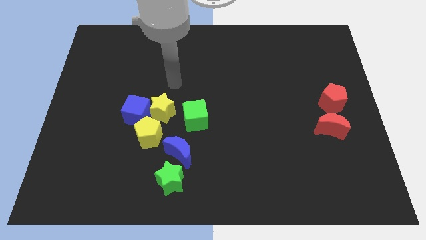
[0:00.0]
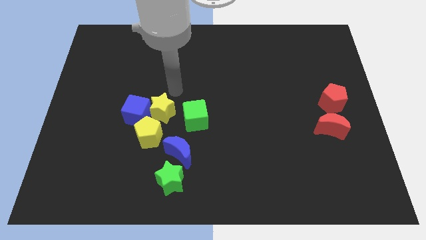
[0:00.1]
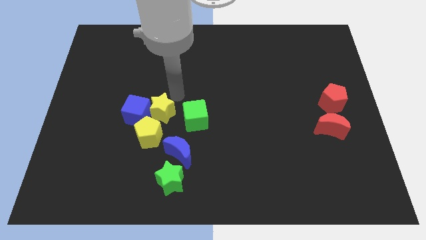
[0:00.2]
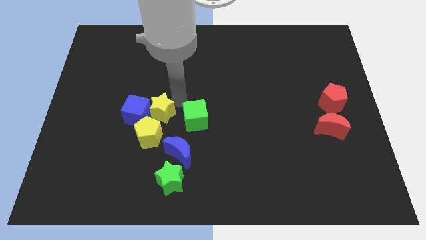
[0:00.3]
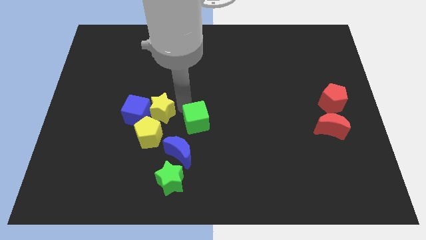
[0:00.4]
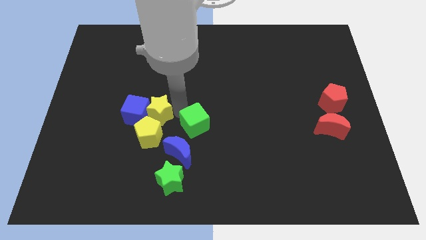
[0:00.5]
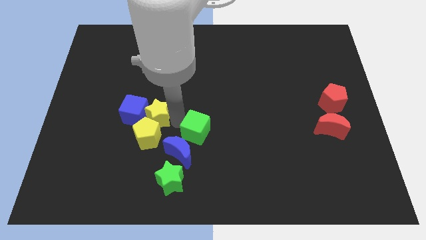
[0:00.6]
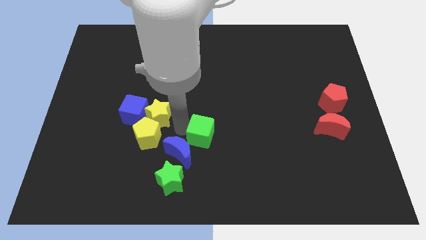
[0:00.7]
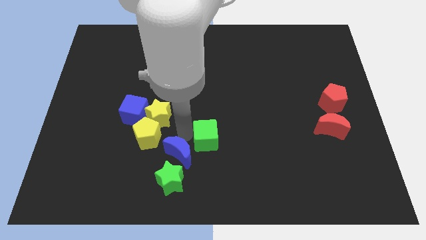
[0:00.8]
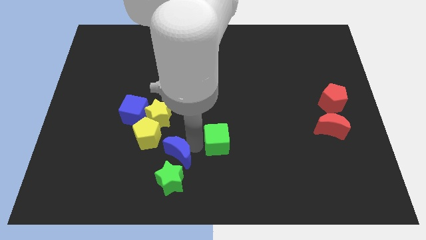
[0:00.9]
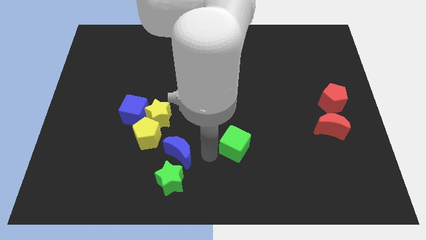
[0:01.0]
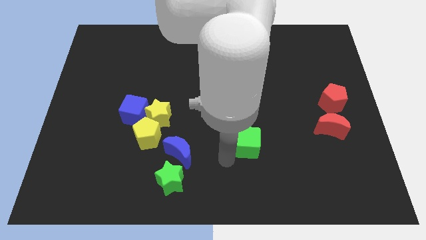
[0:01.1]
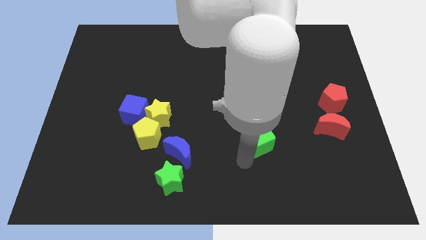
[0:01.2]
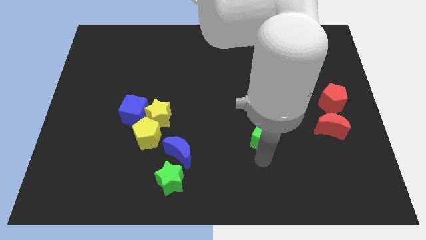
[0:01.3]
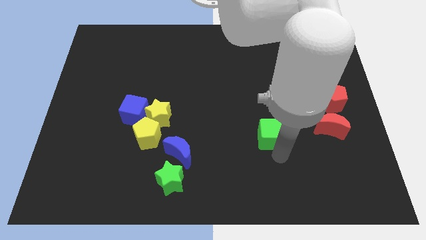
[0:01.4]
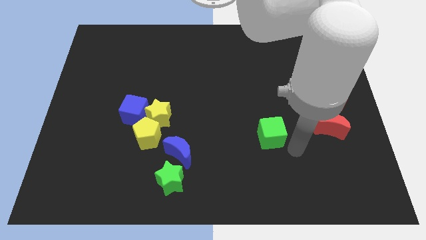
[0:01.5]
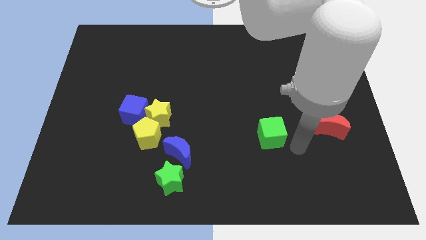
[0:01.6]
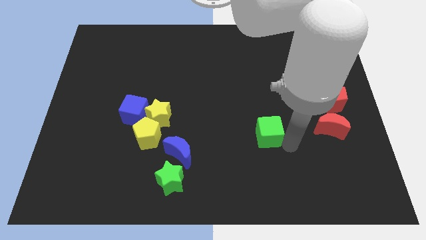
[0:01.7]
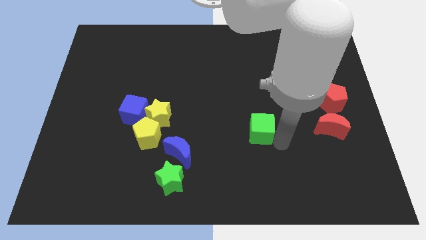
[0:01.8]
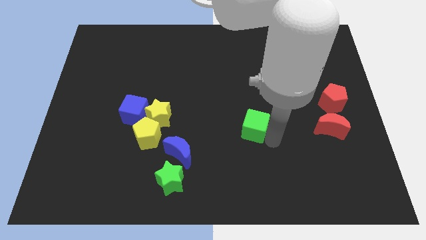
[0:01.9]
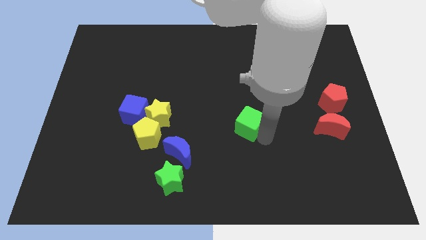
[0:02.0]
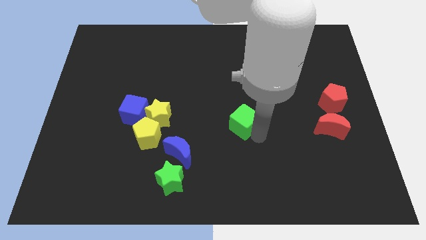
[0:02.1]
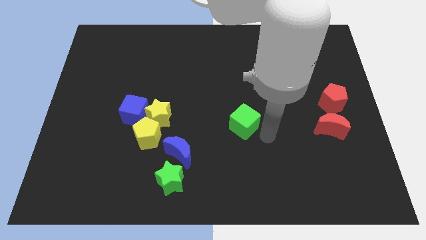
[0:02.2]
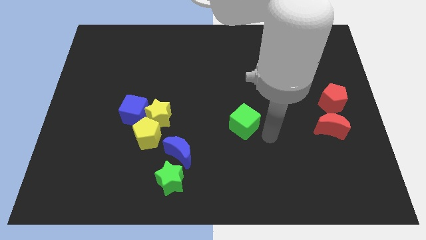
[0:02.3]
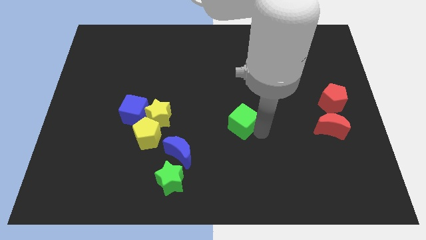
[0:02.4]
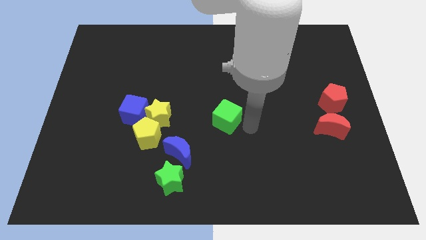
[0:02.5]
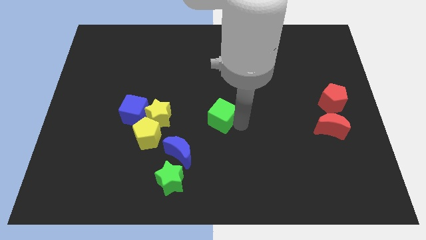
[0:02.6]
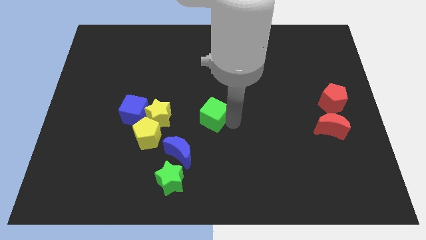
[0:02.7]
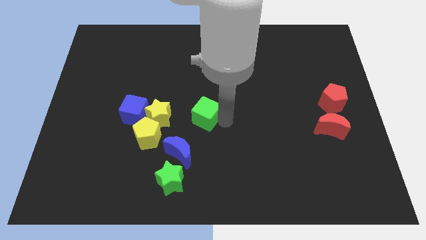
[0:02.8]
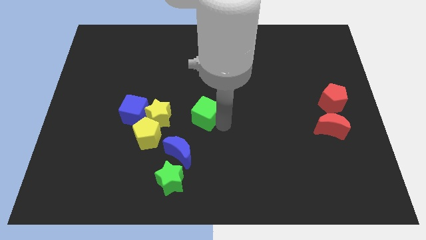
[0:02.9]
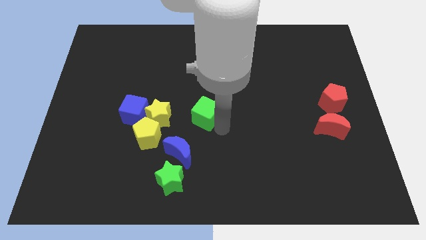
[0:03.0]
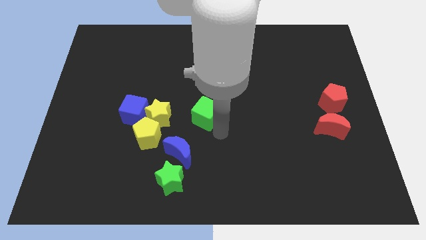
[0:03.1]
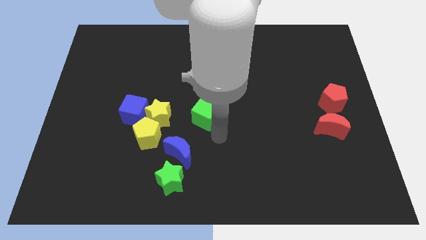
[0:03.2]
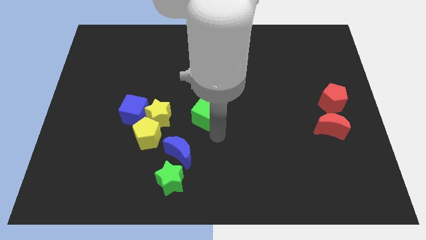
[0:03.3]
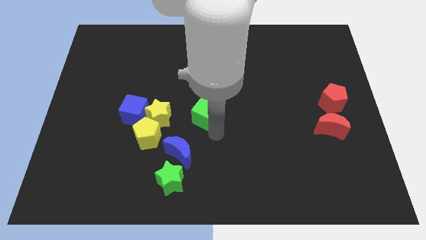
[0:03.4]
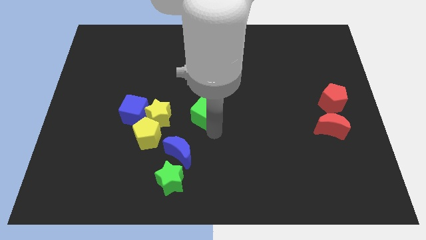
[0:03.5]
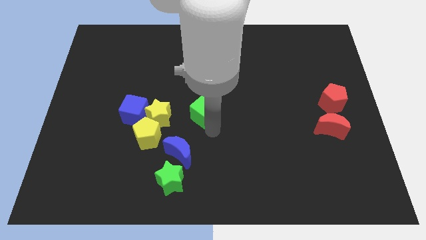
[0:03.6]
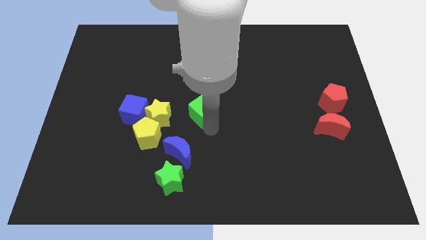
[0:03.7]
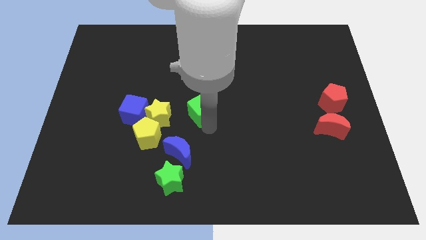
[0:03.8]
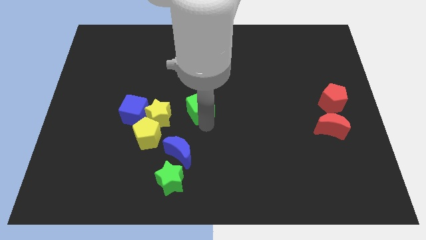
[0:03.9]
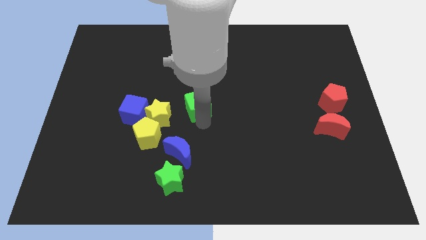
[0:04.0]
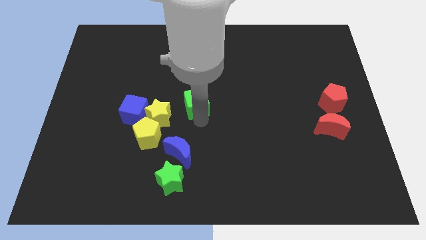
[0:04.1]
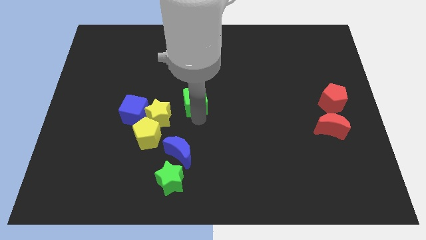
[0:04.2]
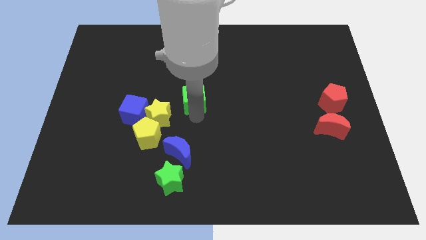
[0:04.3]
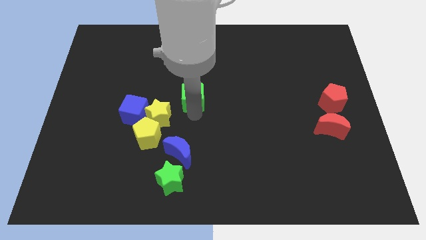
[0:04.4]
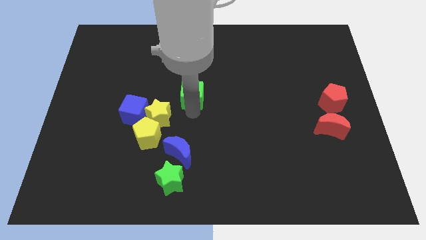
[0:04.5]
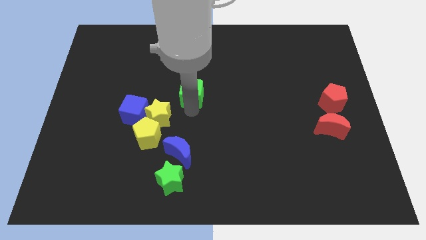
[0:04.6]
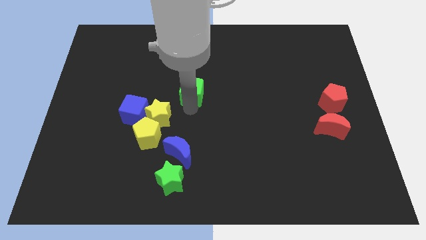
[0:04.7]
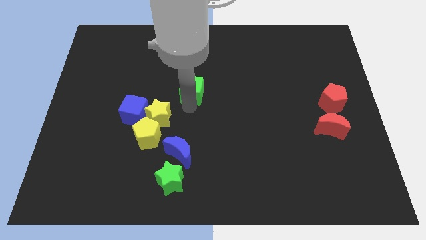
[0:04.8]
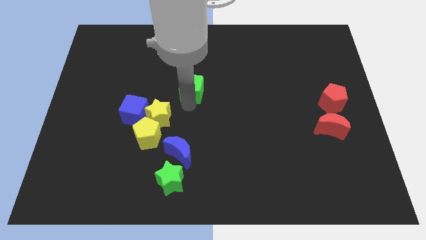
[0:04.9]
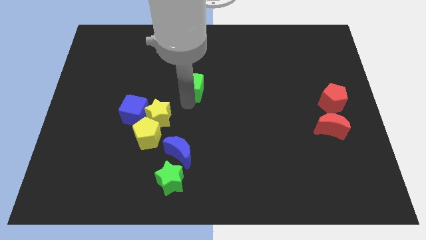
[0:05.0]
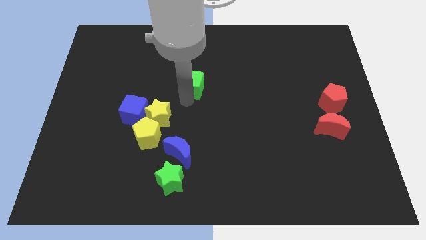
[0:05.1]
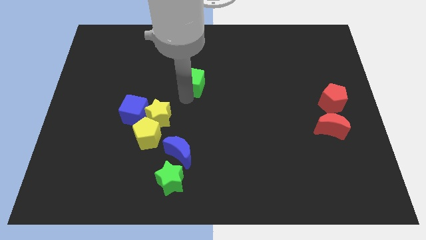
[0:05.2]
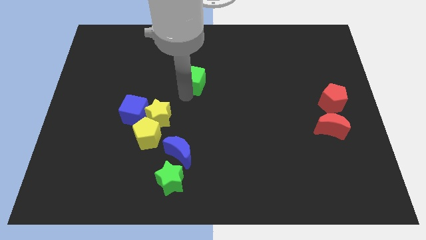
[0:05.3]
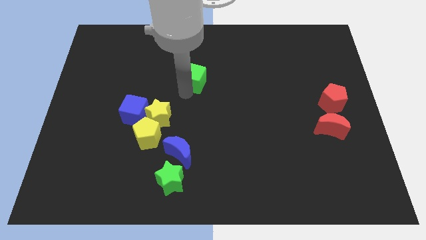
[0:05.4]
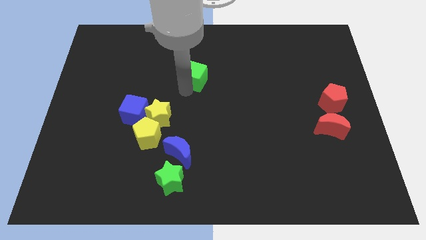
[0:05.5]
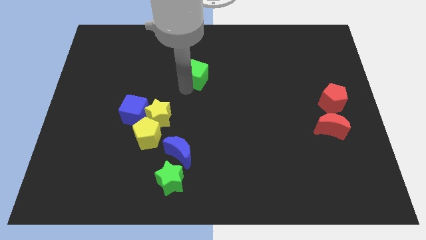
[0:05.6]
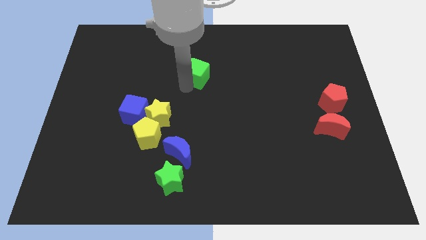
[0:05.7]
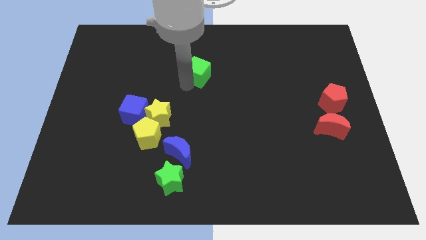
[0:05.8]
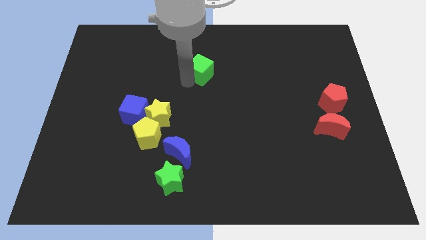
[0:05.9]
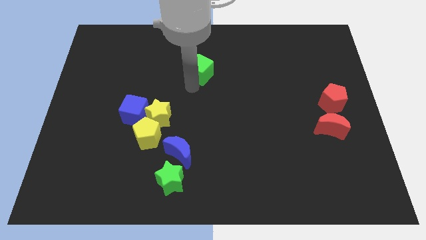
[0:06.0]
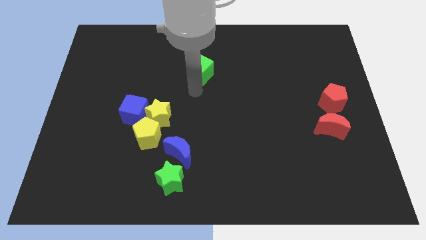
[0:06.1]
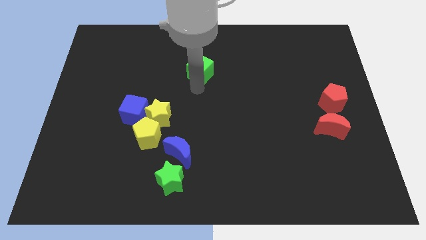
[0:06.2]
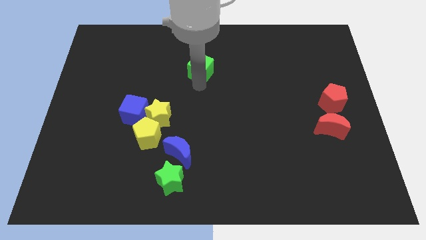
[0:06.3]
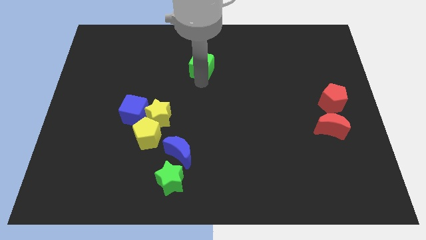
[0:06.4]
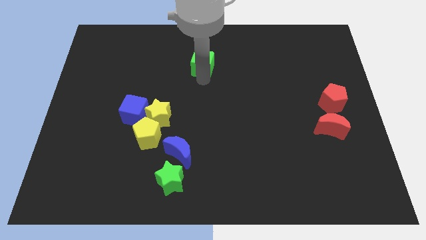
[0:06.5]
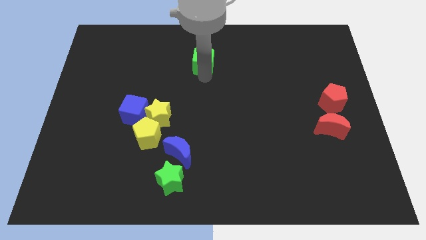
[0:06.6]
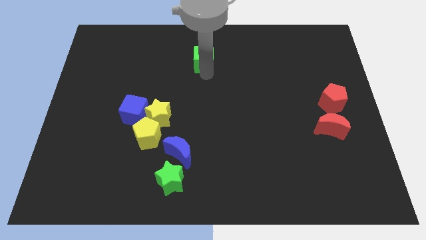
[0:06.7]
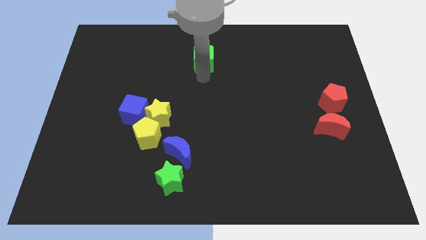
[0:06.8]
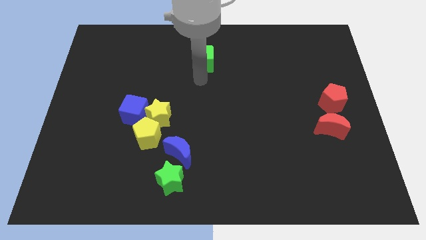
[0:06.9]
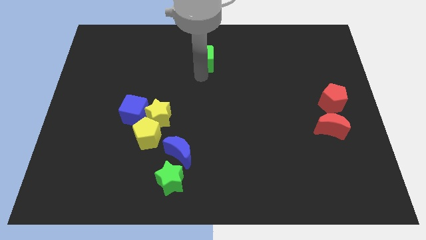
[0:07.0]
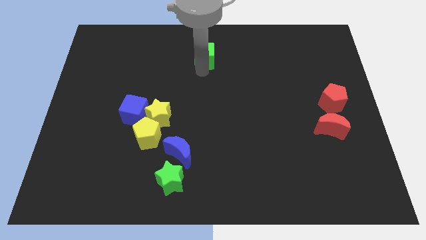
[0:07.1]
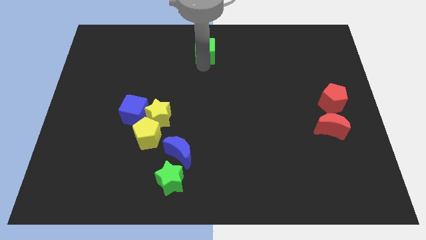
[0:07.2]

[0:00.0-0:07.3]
slide the green cube to the towards your base
